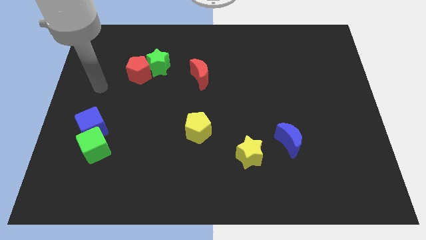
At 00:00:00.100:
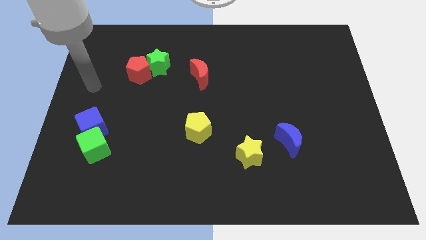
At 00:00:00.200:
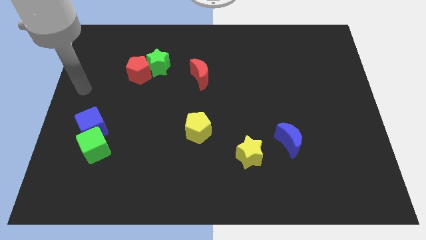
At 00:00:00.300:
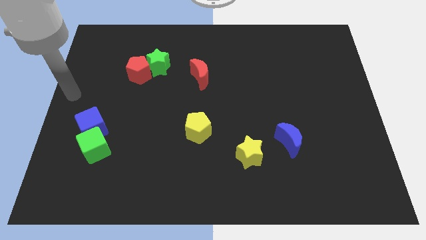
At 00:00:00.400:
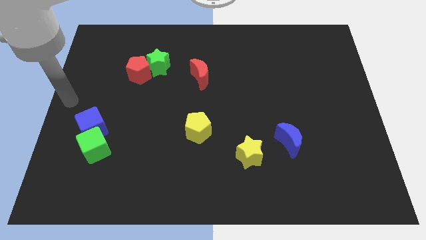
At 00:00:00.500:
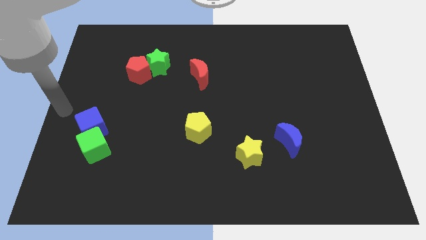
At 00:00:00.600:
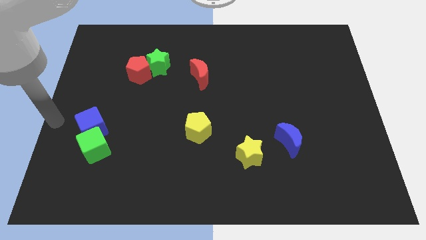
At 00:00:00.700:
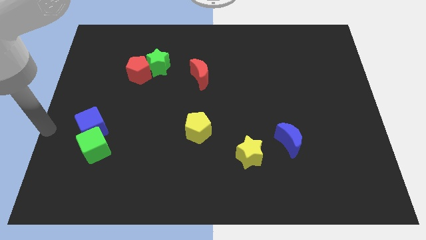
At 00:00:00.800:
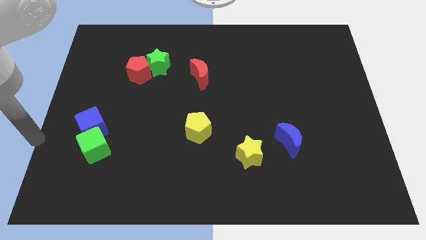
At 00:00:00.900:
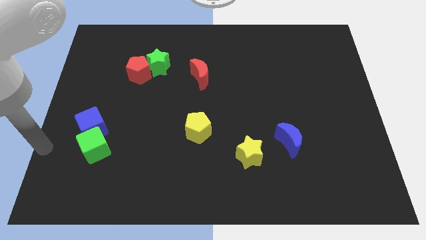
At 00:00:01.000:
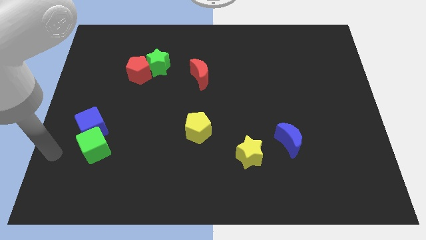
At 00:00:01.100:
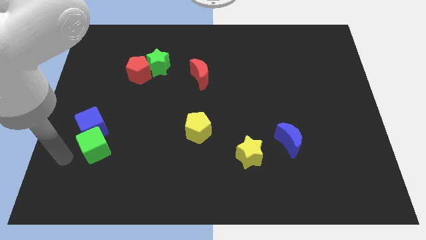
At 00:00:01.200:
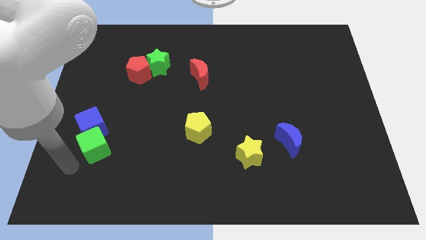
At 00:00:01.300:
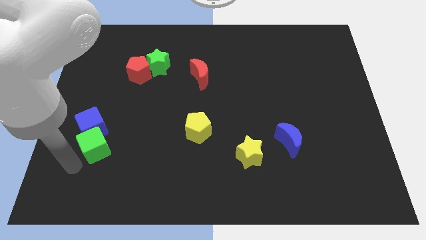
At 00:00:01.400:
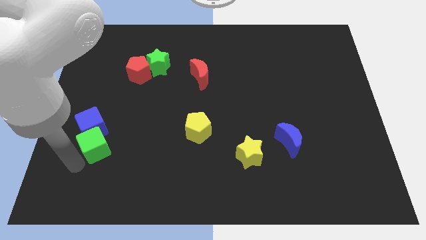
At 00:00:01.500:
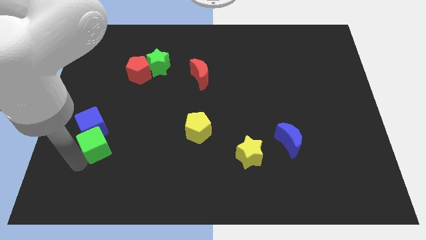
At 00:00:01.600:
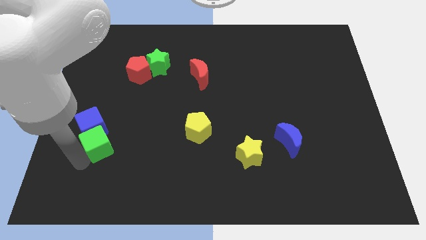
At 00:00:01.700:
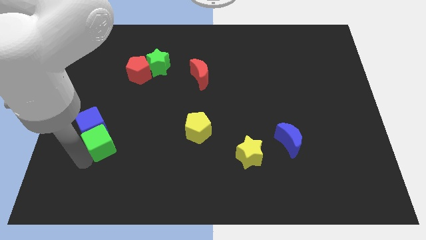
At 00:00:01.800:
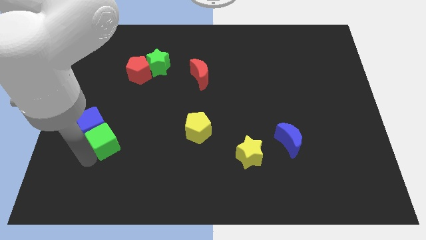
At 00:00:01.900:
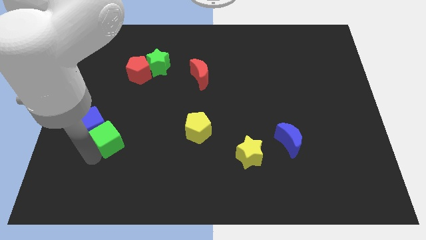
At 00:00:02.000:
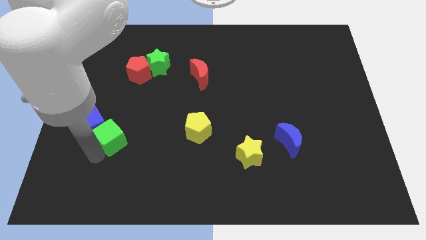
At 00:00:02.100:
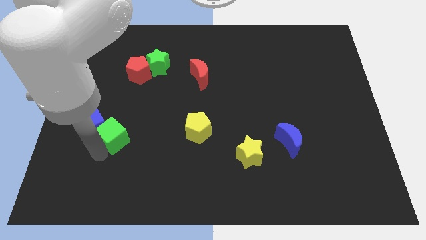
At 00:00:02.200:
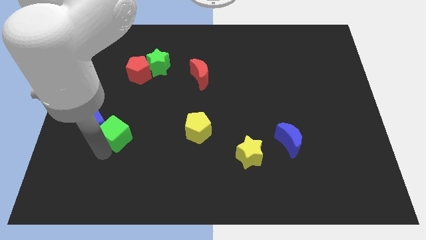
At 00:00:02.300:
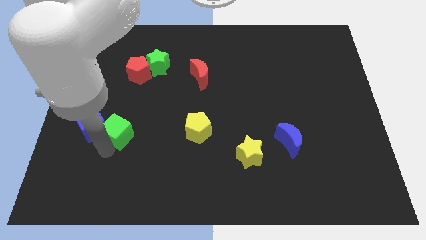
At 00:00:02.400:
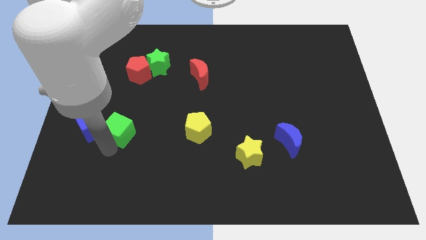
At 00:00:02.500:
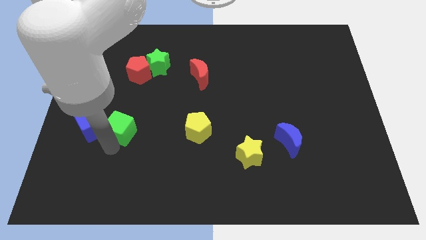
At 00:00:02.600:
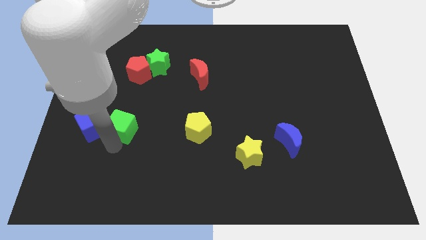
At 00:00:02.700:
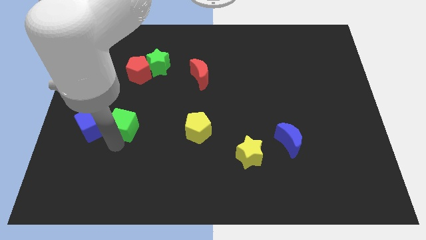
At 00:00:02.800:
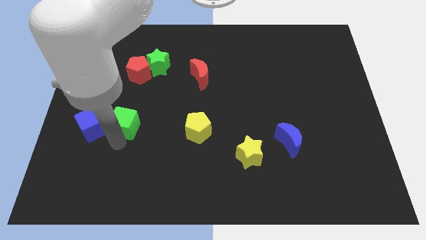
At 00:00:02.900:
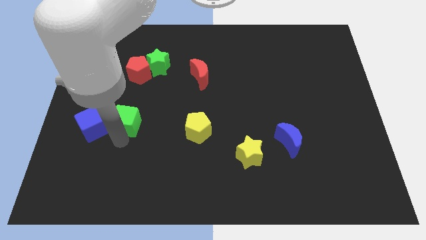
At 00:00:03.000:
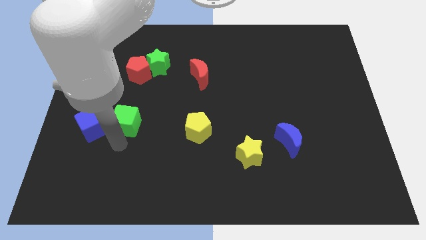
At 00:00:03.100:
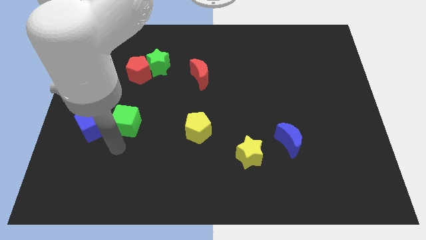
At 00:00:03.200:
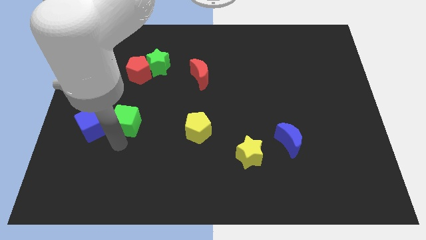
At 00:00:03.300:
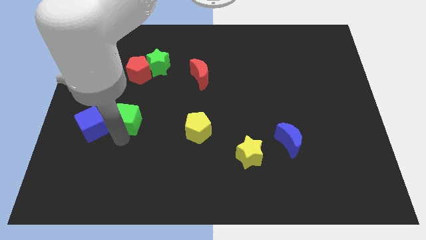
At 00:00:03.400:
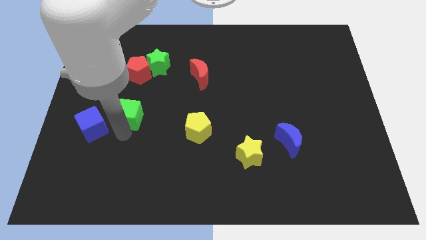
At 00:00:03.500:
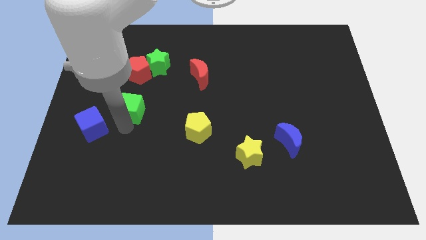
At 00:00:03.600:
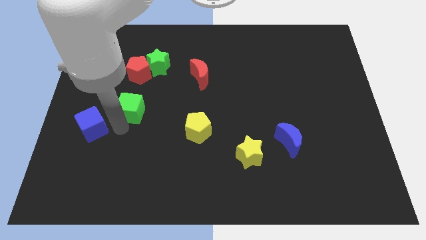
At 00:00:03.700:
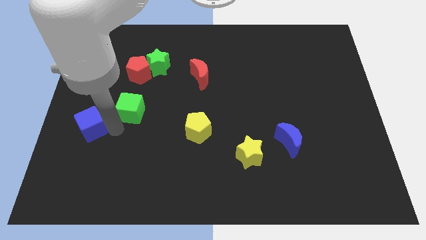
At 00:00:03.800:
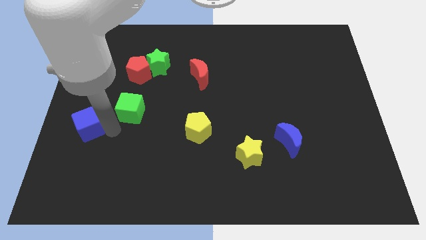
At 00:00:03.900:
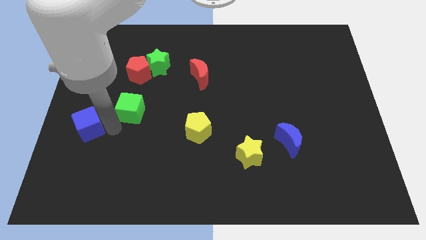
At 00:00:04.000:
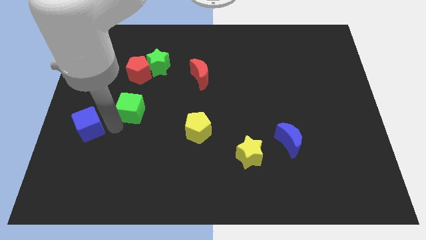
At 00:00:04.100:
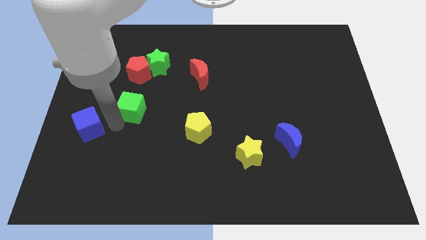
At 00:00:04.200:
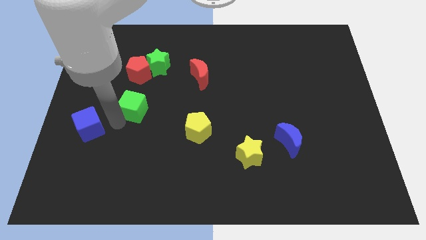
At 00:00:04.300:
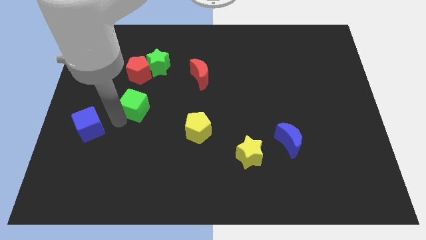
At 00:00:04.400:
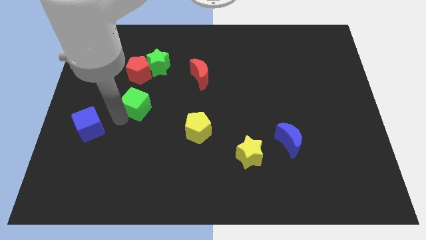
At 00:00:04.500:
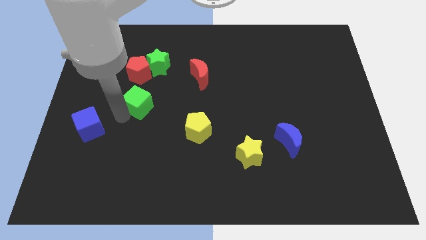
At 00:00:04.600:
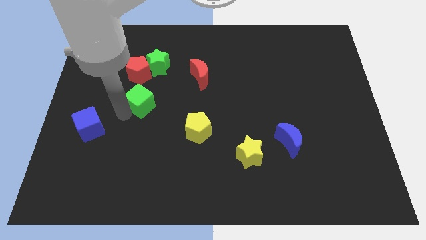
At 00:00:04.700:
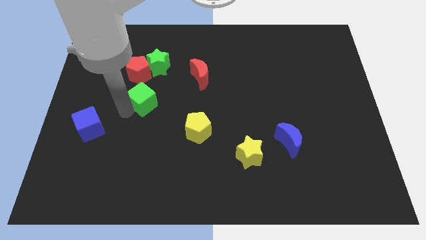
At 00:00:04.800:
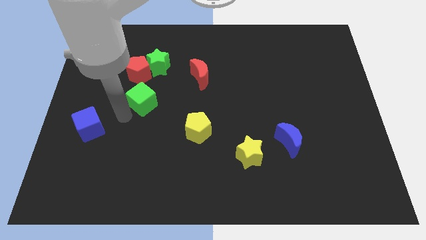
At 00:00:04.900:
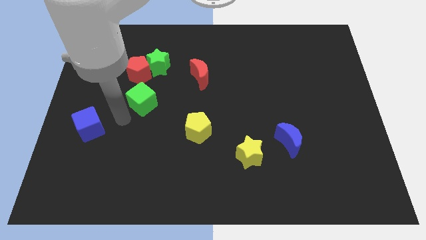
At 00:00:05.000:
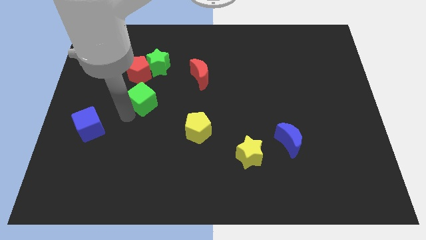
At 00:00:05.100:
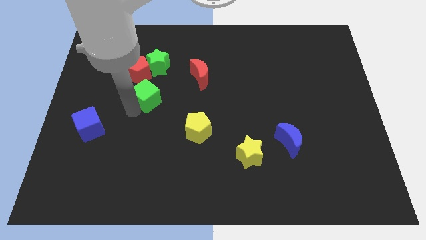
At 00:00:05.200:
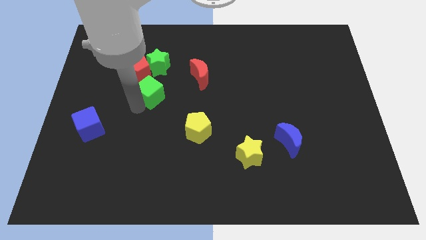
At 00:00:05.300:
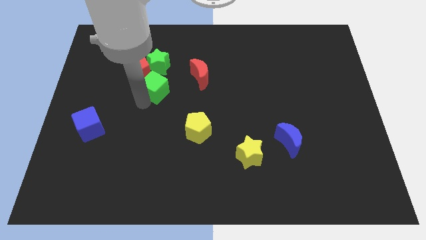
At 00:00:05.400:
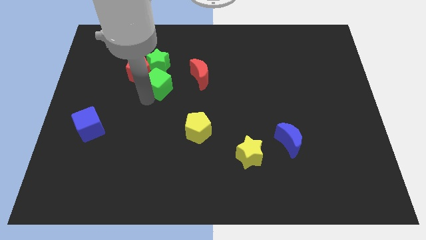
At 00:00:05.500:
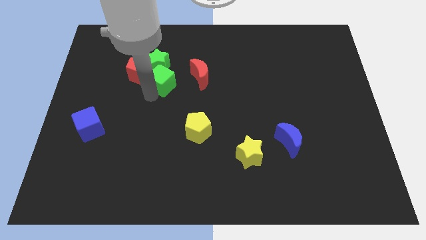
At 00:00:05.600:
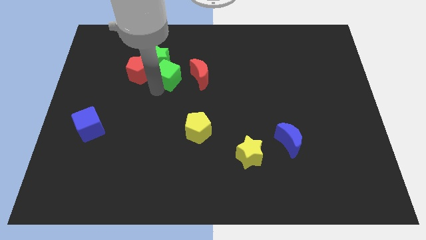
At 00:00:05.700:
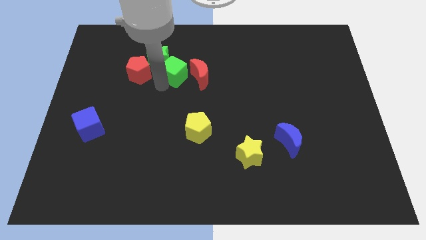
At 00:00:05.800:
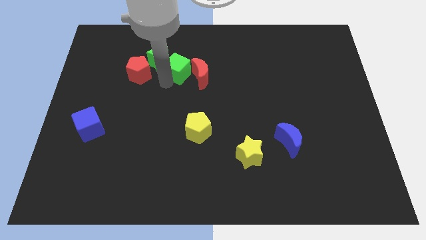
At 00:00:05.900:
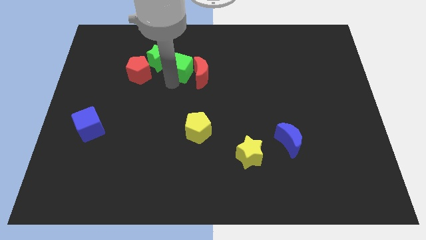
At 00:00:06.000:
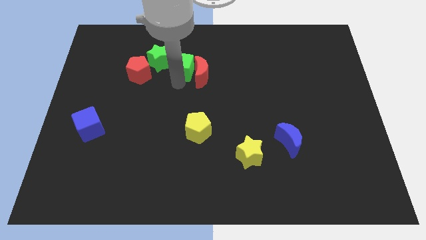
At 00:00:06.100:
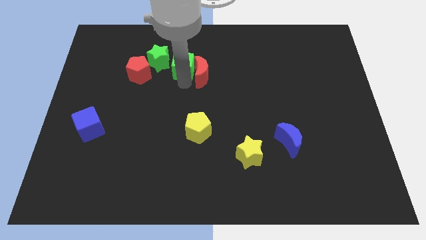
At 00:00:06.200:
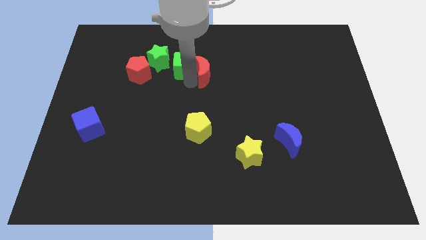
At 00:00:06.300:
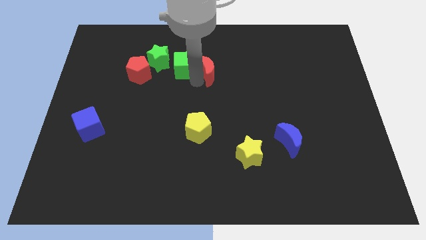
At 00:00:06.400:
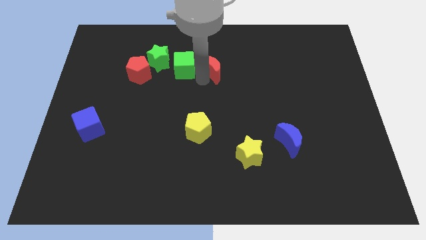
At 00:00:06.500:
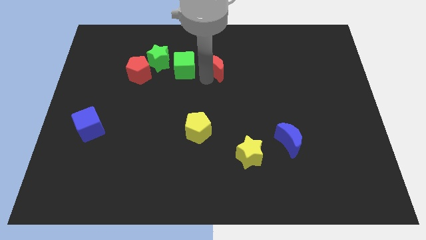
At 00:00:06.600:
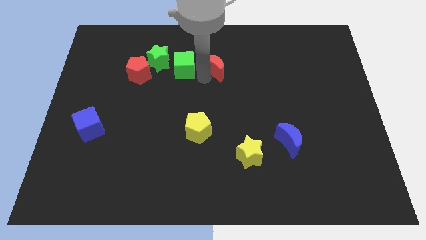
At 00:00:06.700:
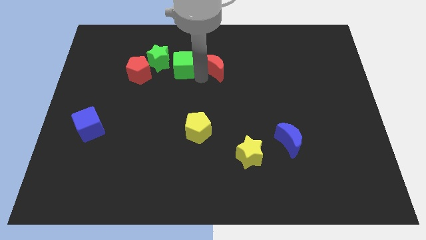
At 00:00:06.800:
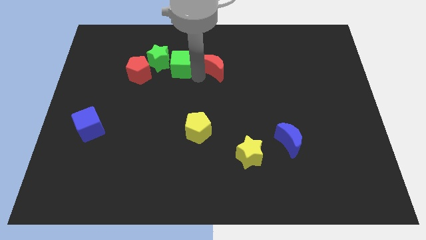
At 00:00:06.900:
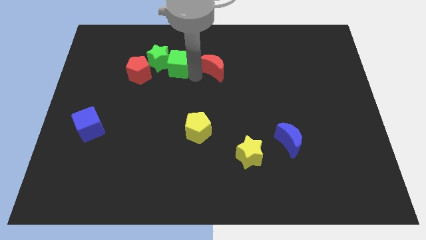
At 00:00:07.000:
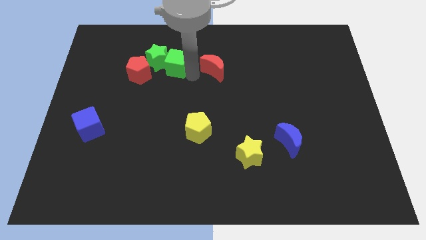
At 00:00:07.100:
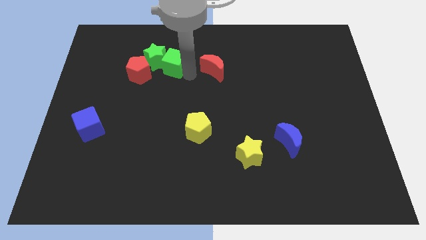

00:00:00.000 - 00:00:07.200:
move the green cube to the top right side of the red pentagon
